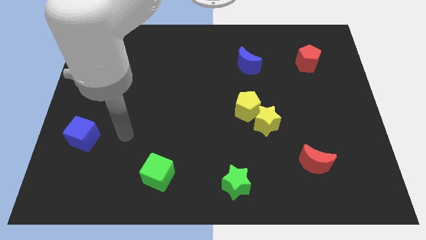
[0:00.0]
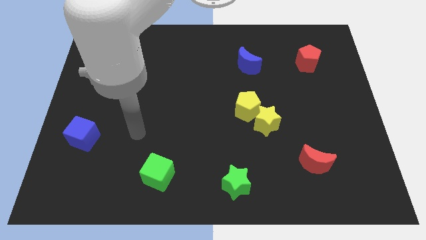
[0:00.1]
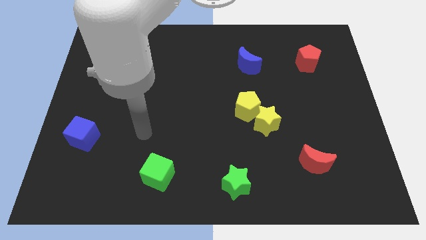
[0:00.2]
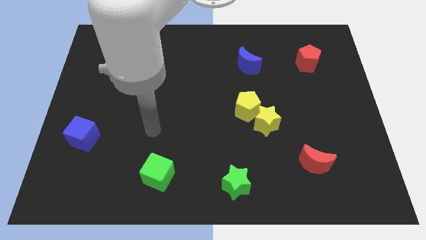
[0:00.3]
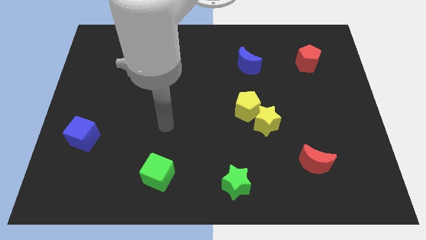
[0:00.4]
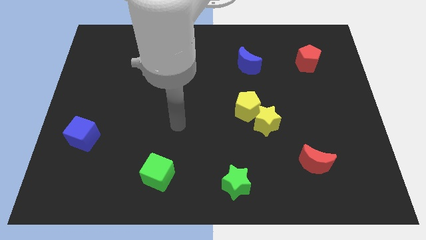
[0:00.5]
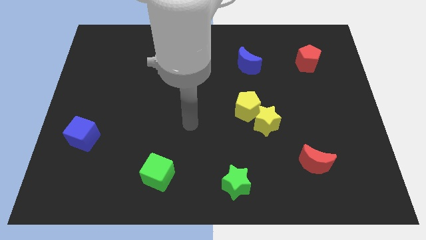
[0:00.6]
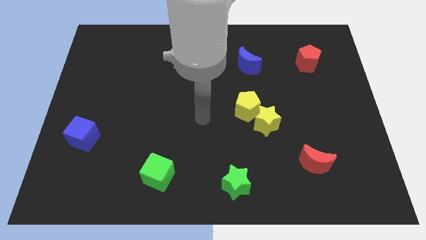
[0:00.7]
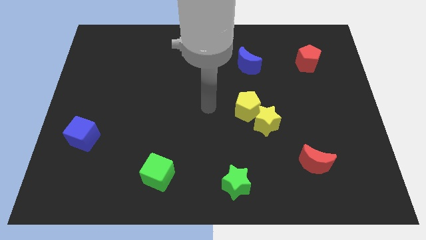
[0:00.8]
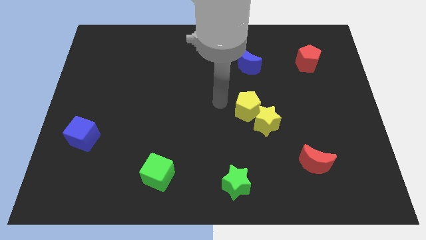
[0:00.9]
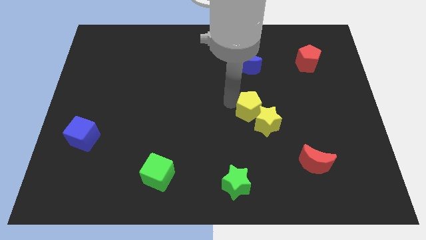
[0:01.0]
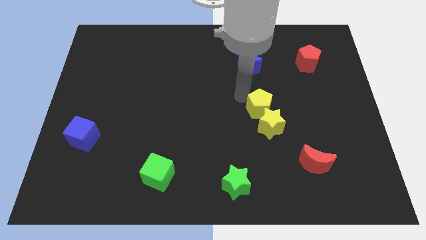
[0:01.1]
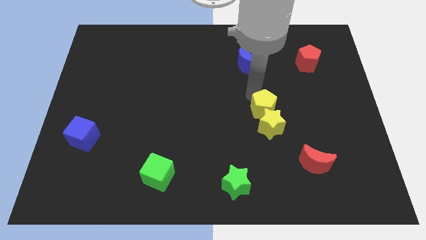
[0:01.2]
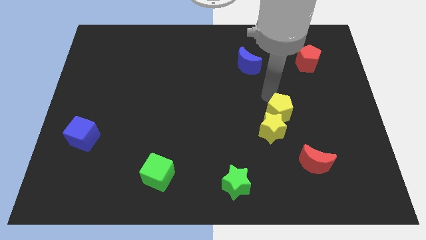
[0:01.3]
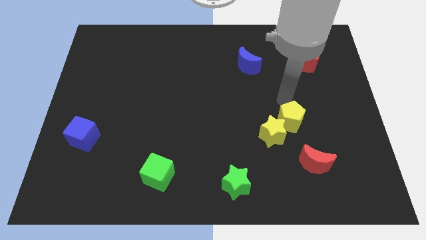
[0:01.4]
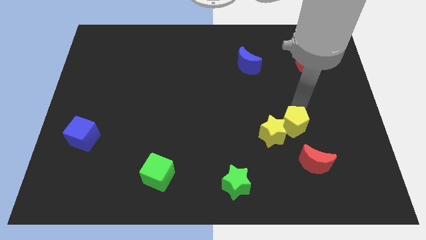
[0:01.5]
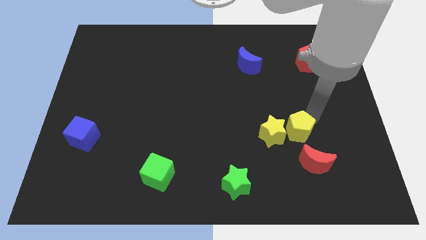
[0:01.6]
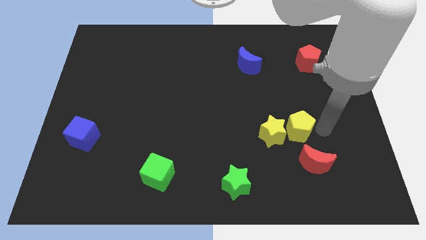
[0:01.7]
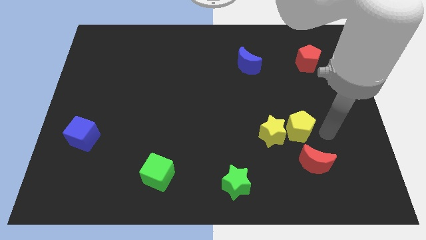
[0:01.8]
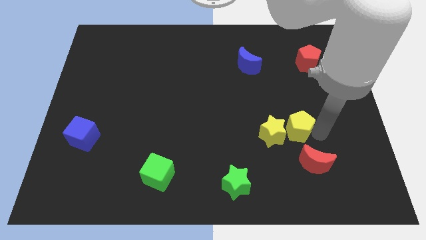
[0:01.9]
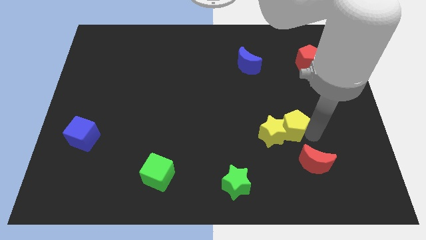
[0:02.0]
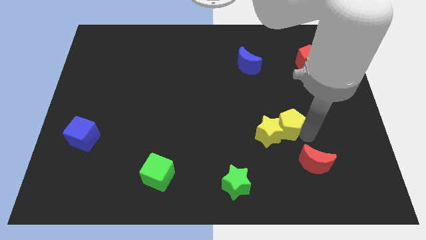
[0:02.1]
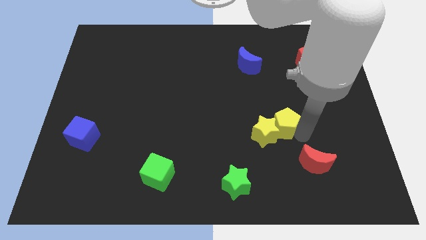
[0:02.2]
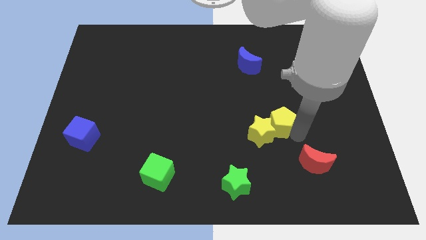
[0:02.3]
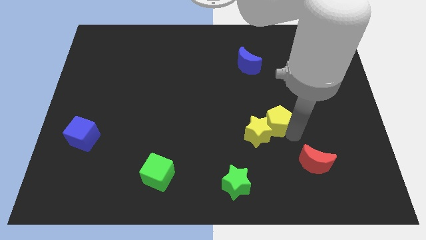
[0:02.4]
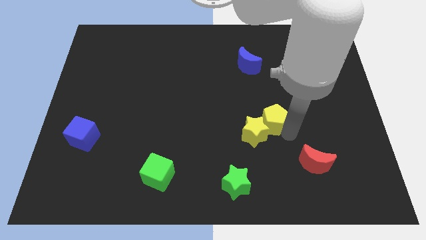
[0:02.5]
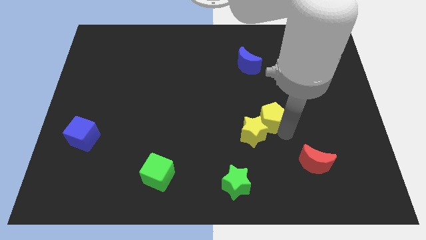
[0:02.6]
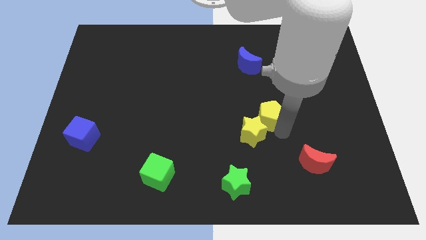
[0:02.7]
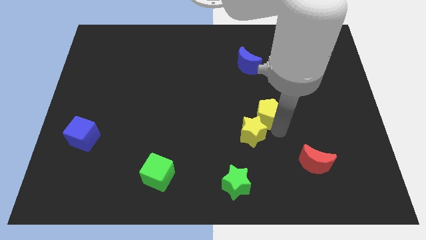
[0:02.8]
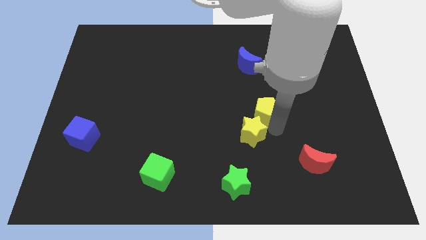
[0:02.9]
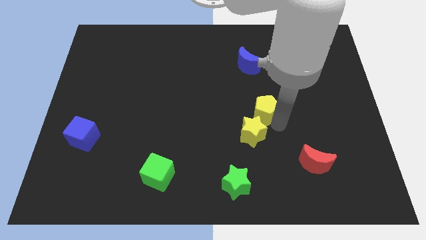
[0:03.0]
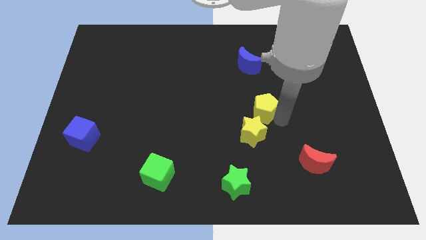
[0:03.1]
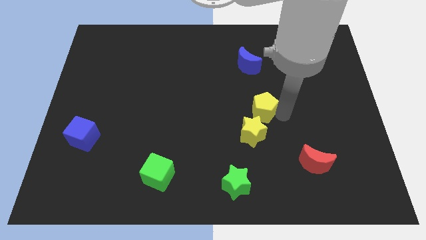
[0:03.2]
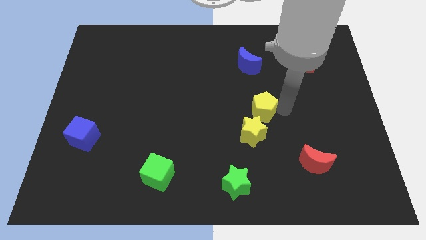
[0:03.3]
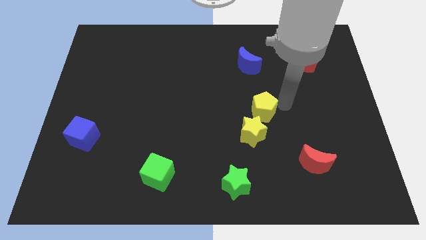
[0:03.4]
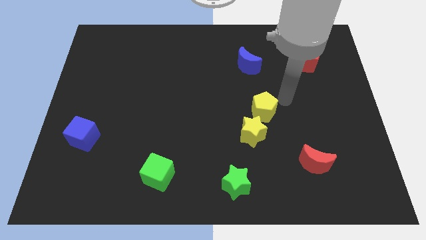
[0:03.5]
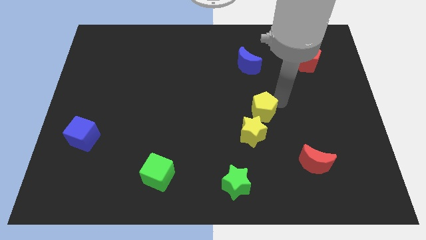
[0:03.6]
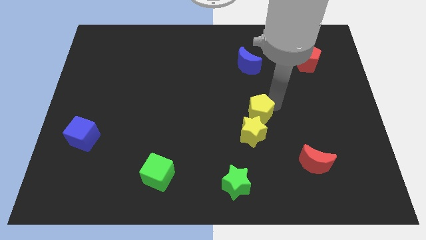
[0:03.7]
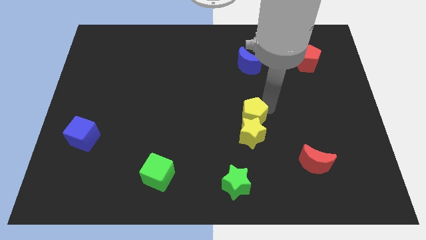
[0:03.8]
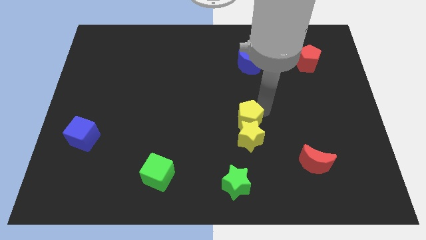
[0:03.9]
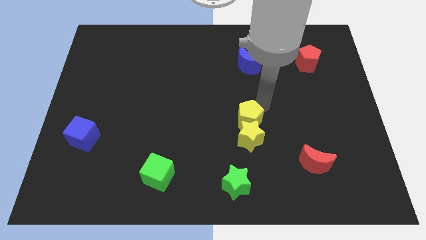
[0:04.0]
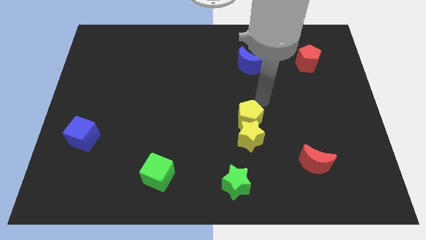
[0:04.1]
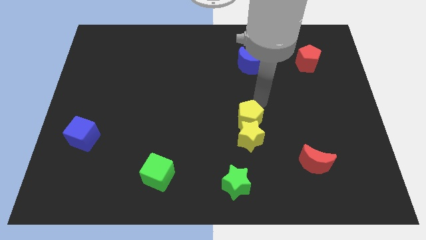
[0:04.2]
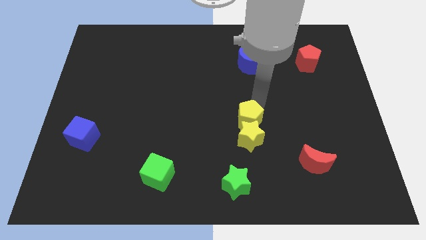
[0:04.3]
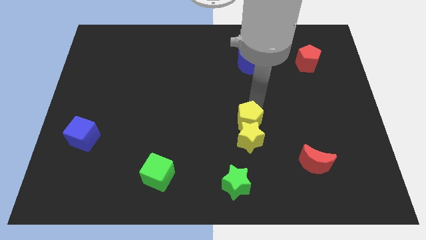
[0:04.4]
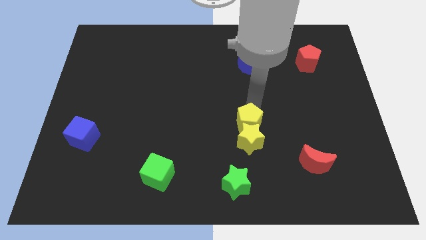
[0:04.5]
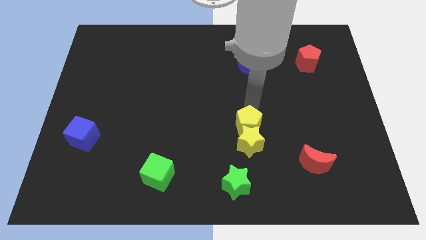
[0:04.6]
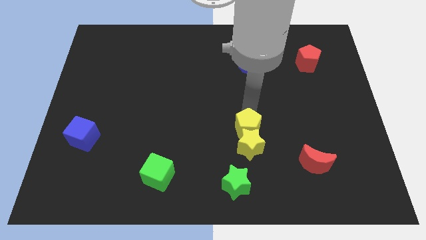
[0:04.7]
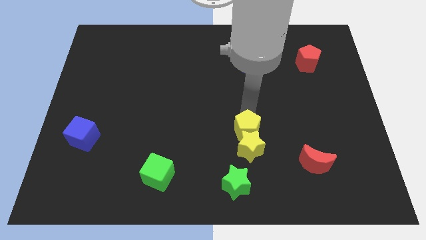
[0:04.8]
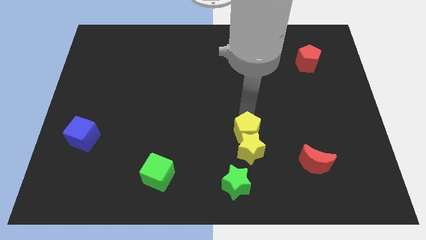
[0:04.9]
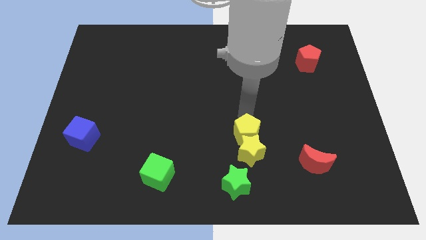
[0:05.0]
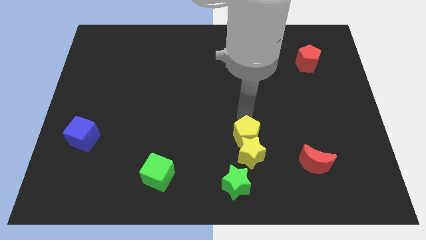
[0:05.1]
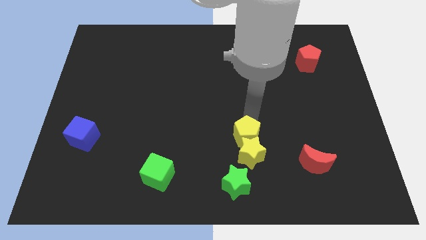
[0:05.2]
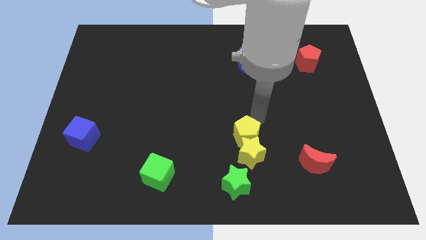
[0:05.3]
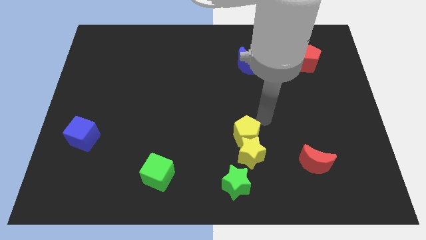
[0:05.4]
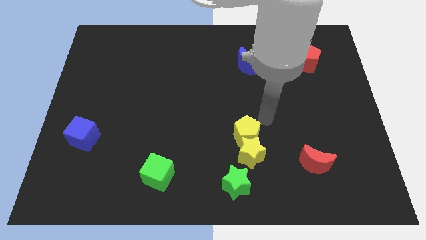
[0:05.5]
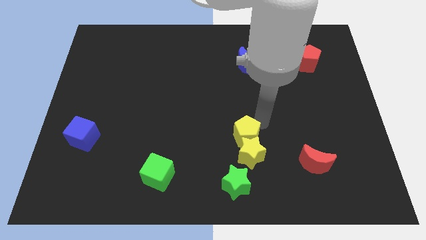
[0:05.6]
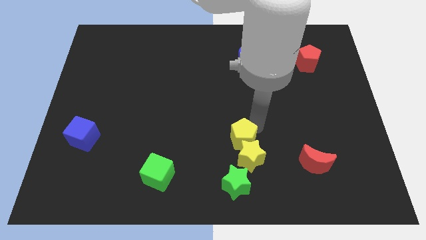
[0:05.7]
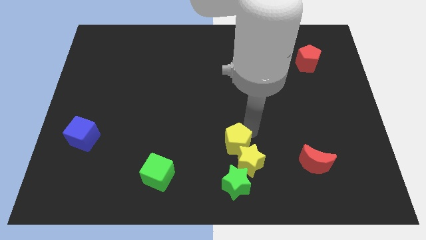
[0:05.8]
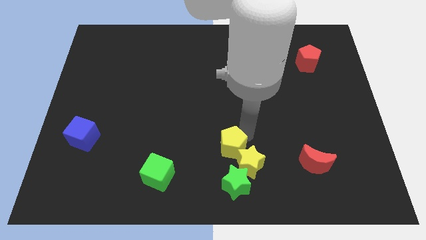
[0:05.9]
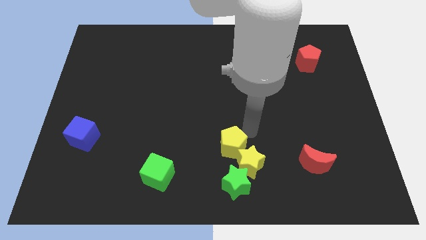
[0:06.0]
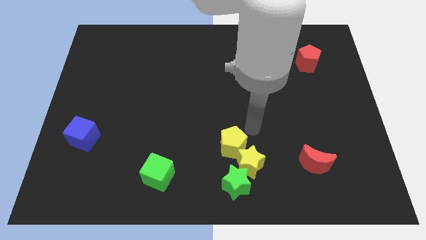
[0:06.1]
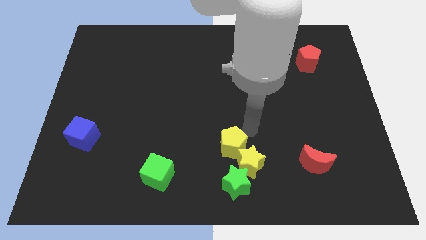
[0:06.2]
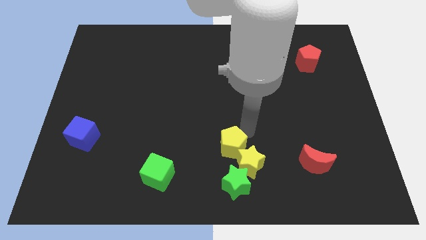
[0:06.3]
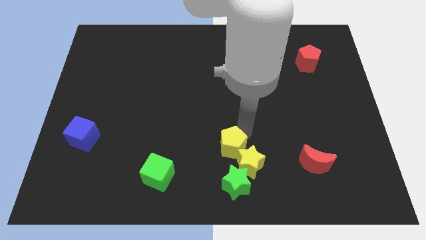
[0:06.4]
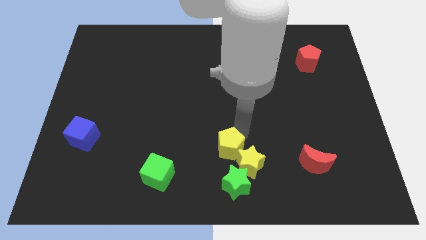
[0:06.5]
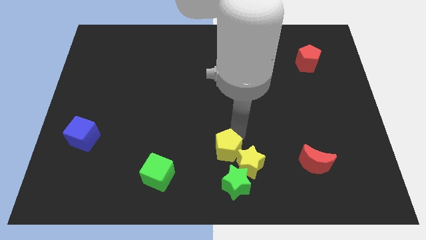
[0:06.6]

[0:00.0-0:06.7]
slide the yellow pentagon to the top left side of the green star
